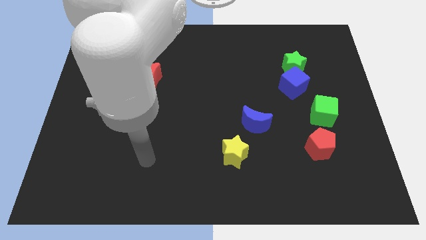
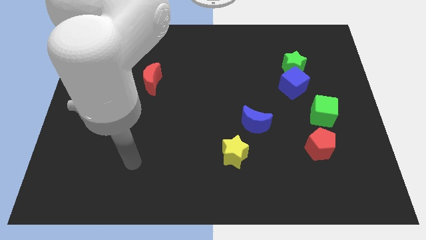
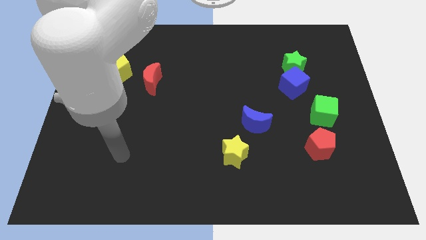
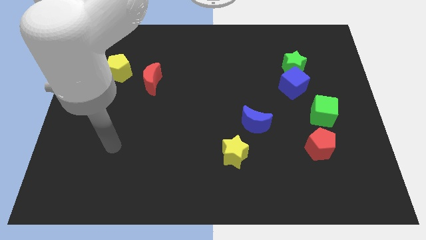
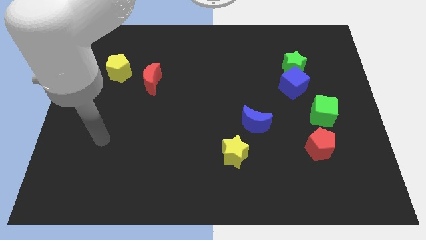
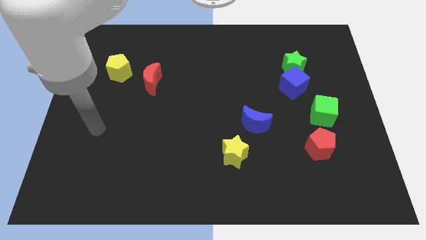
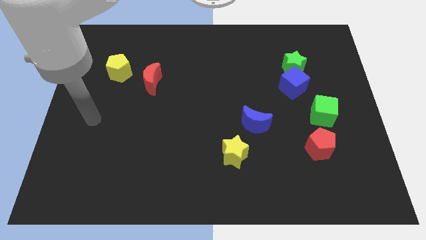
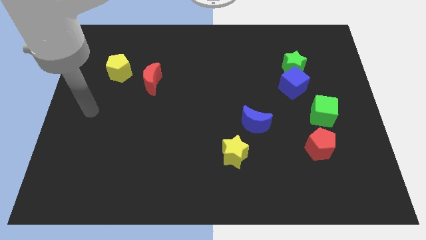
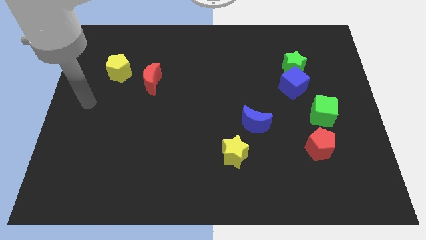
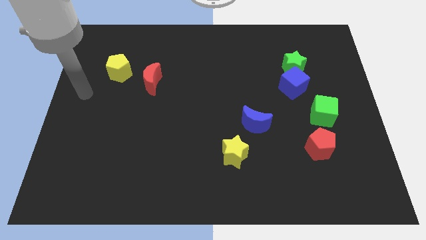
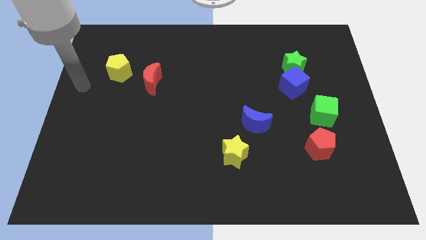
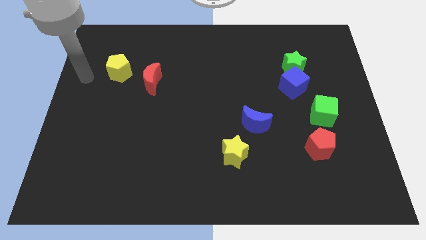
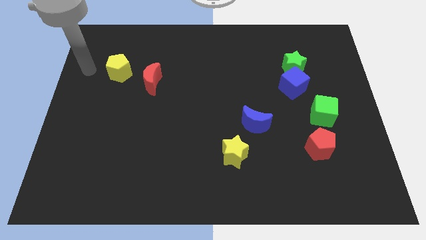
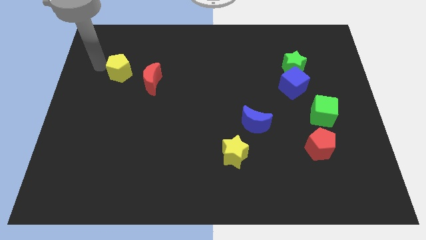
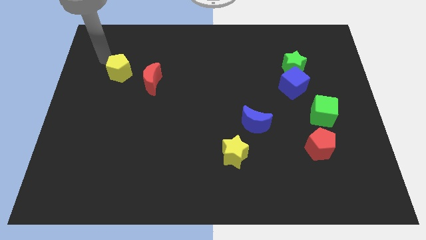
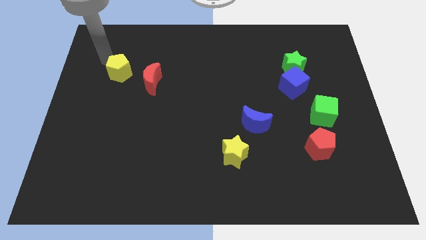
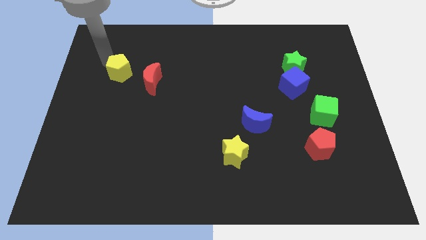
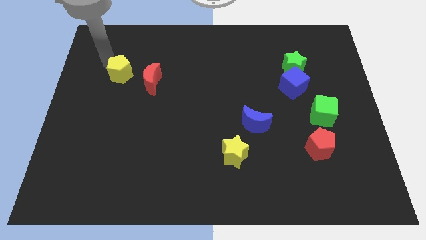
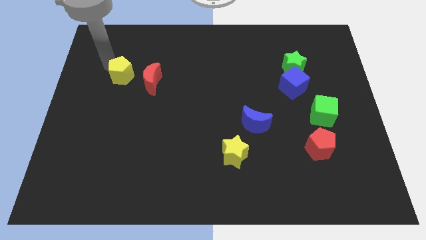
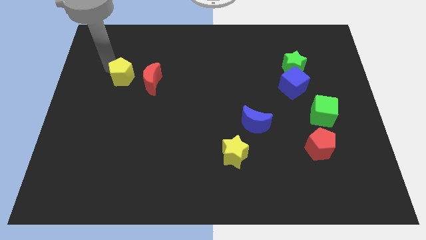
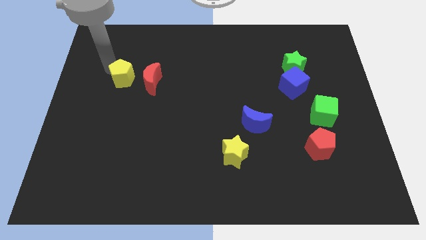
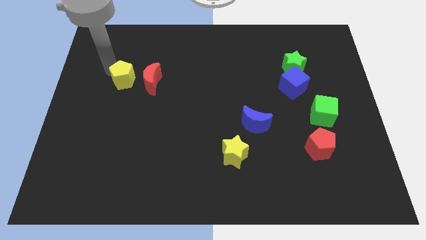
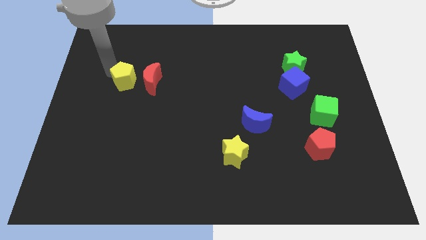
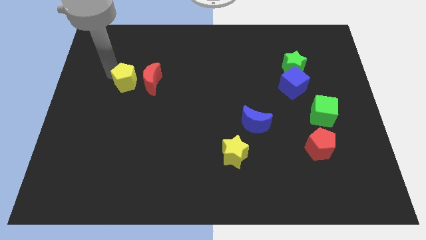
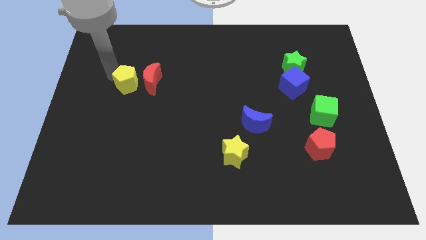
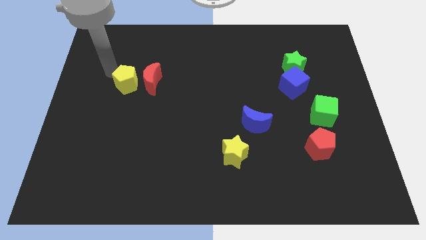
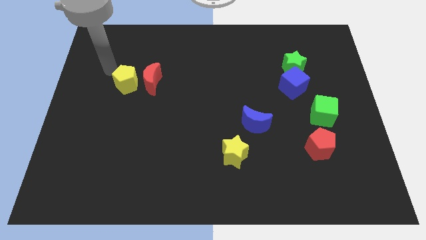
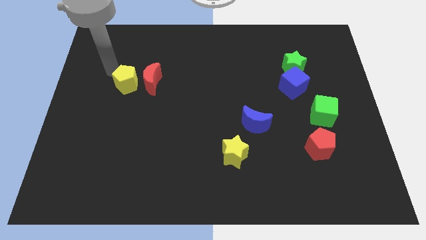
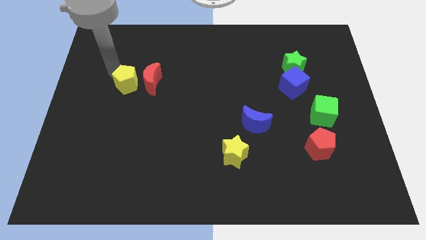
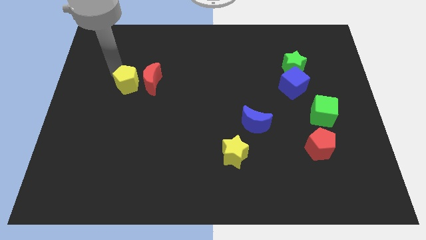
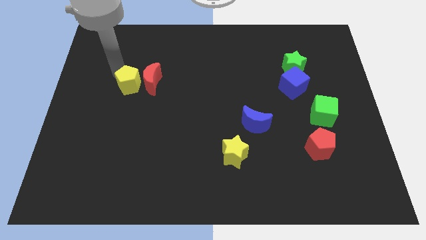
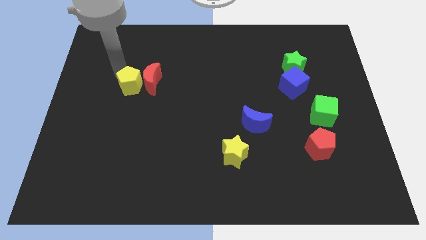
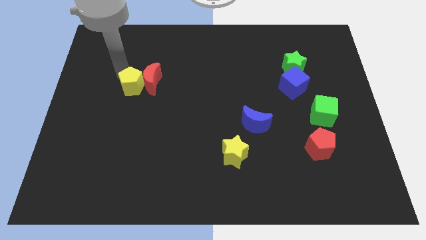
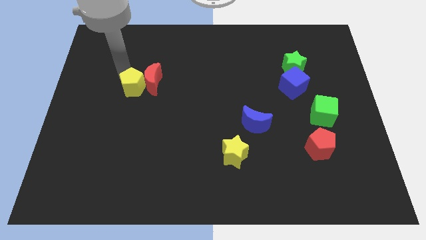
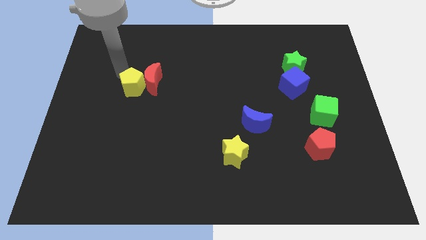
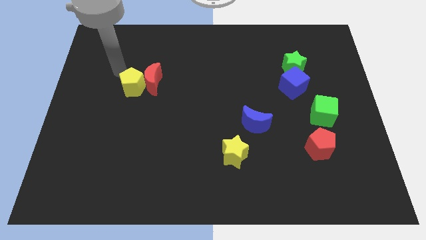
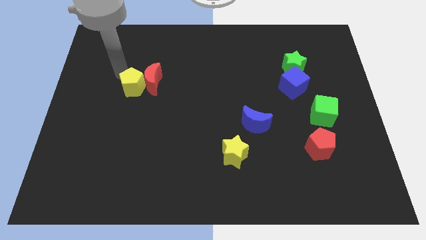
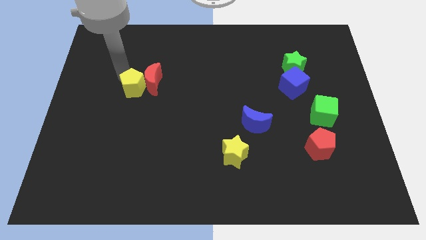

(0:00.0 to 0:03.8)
move the yellow pentagon slightly diagonally down and to the right

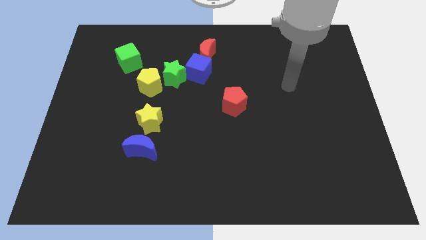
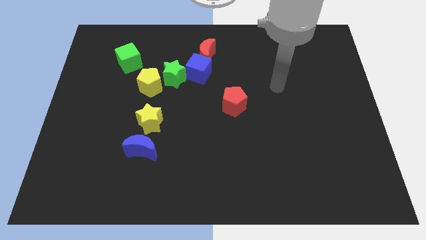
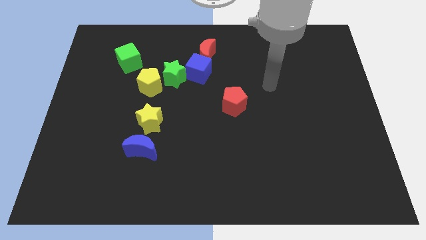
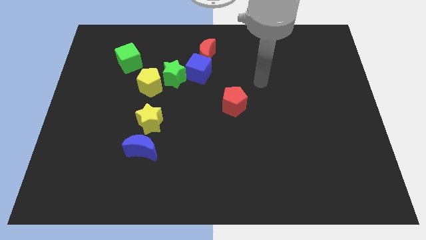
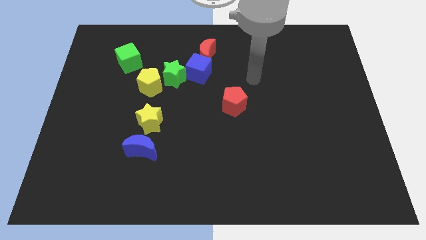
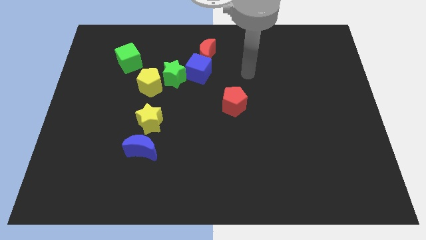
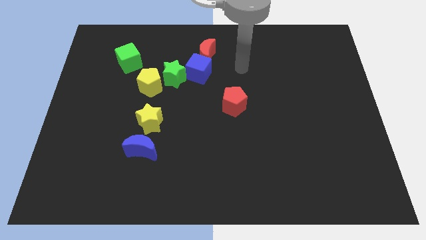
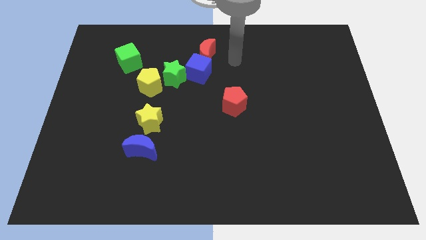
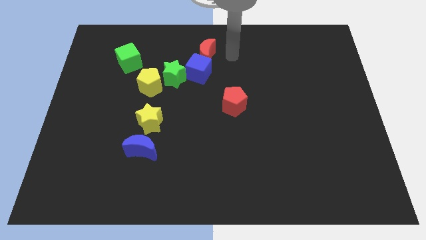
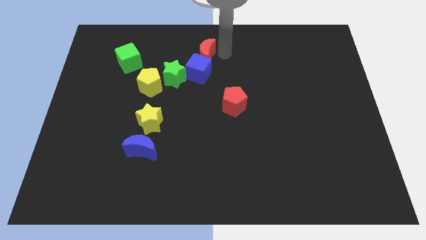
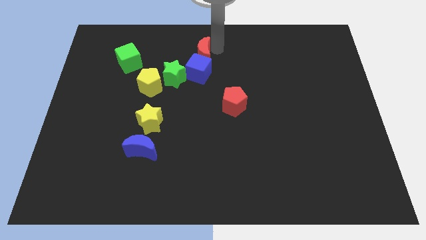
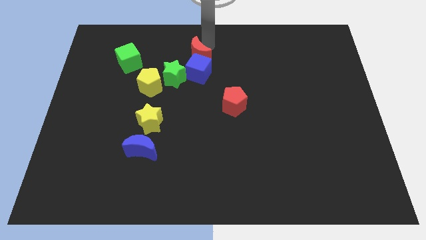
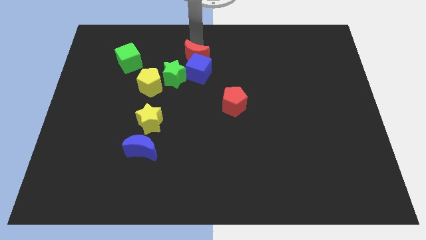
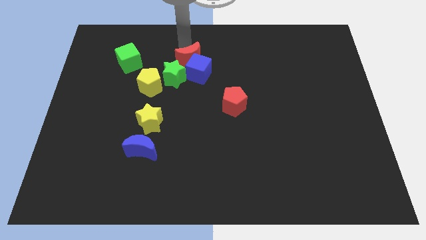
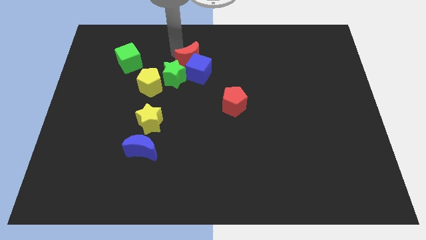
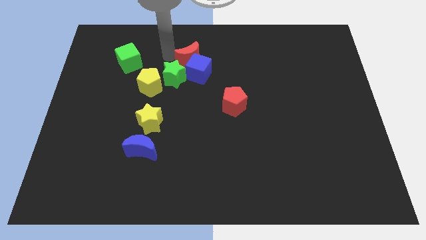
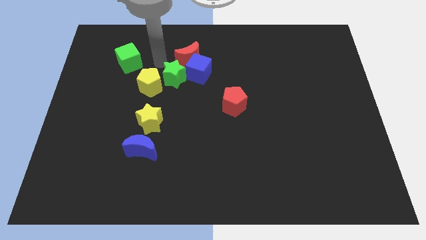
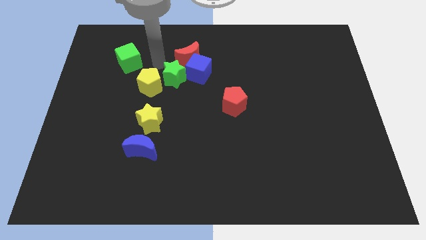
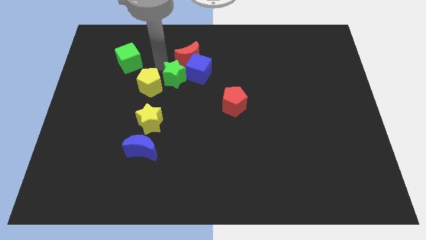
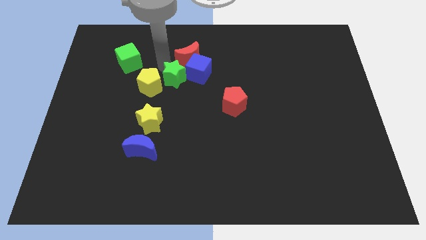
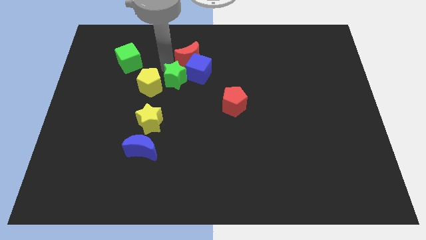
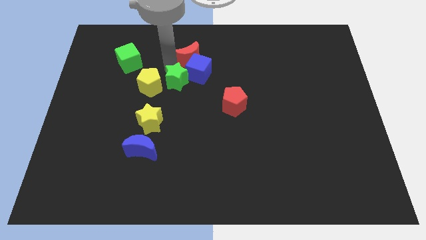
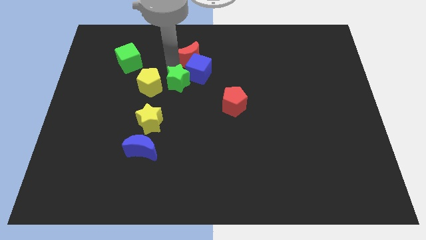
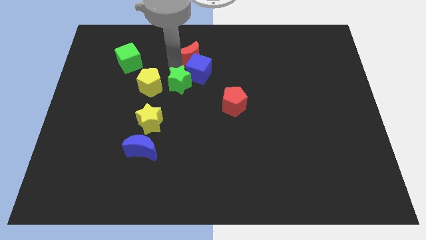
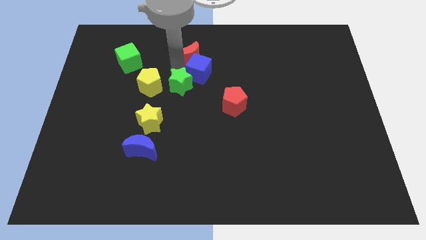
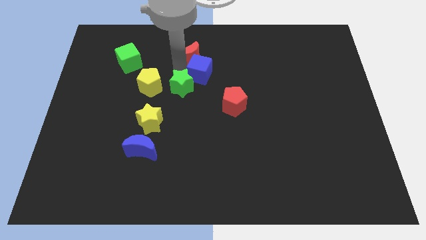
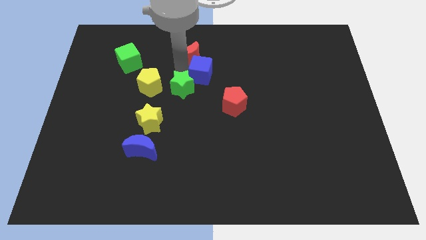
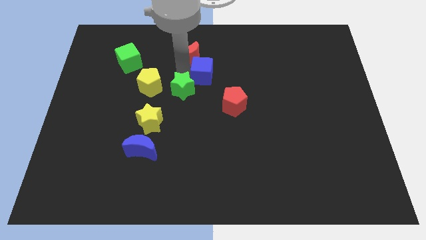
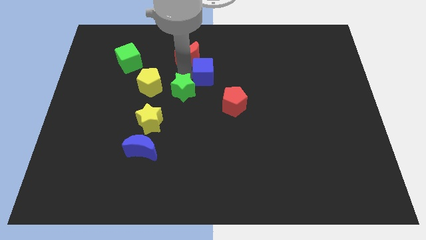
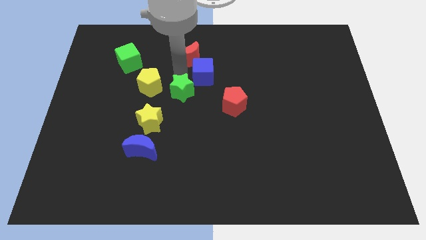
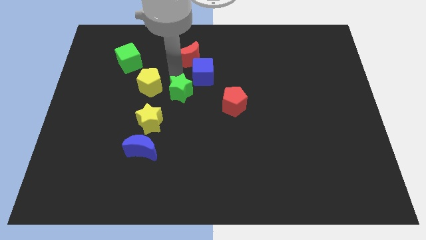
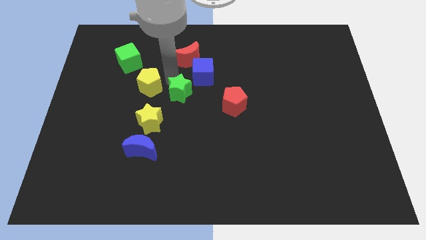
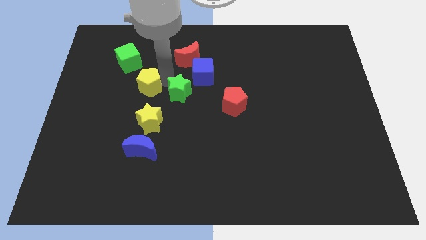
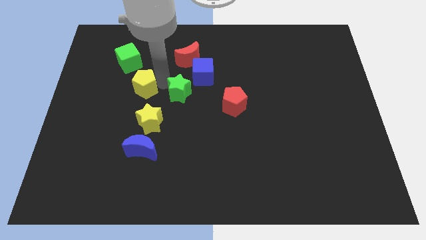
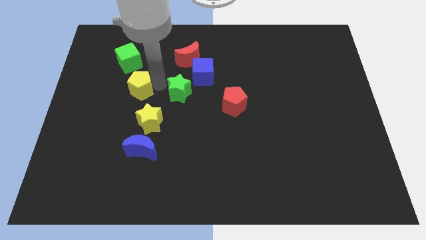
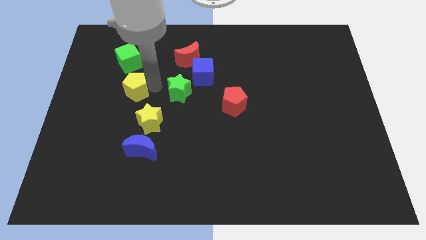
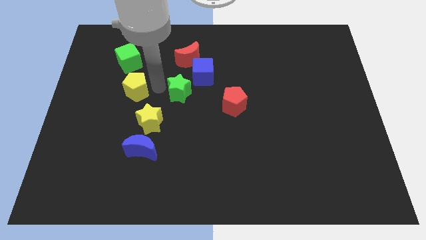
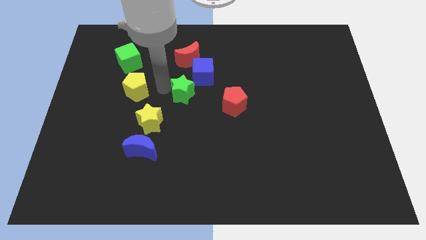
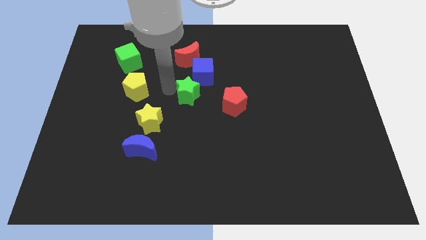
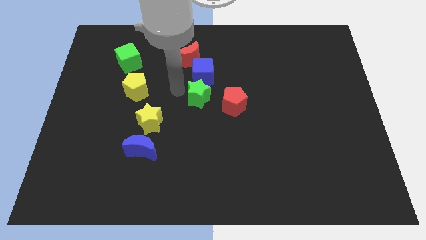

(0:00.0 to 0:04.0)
push the green star down and right diagonally a little

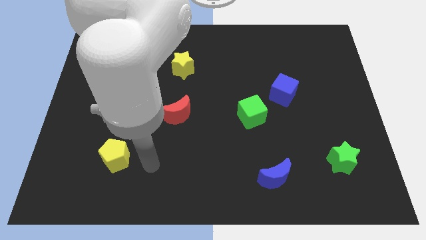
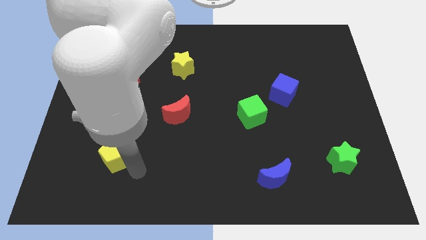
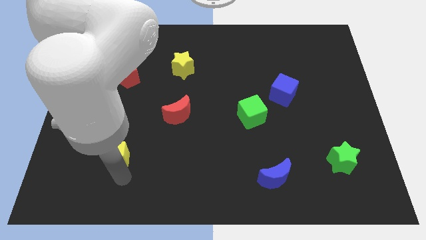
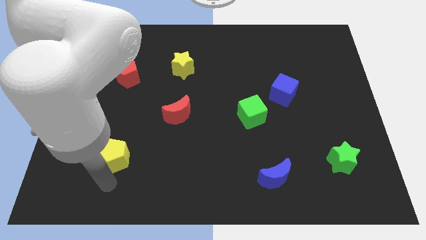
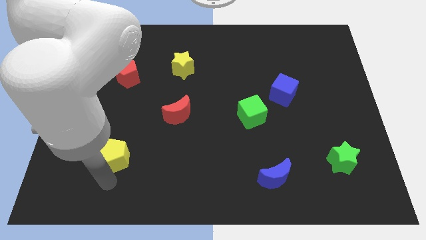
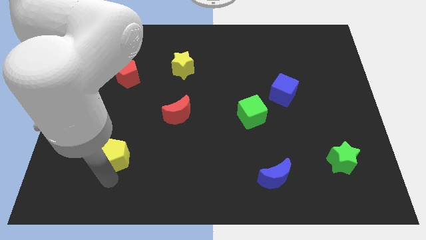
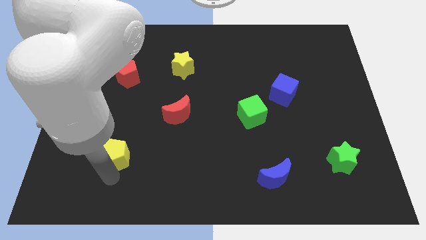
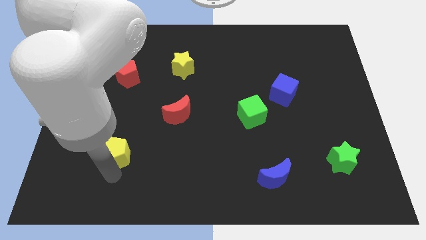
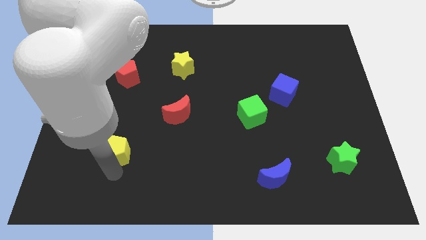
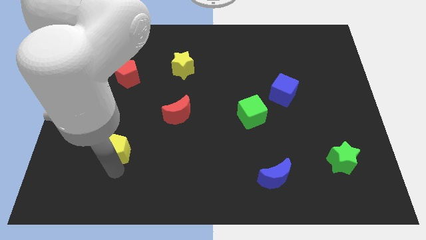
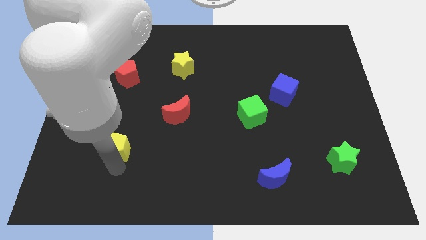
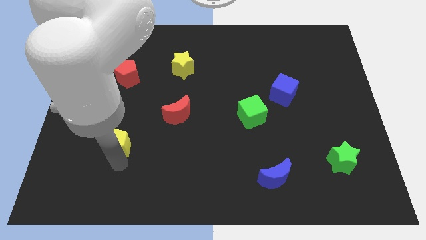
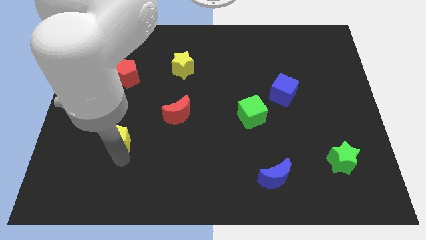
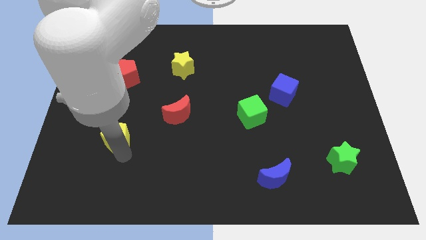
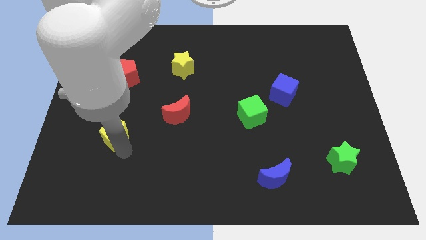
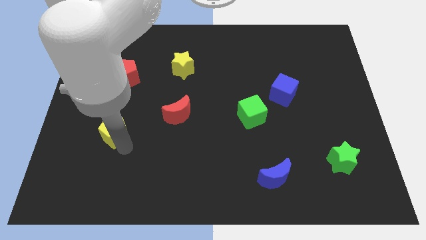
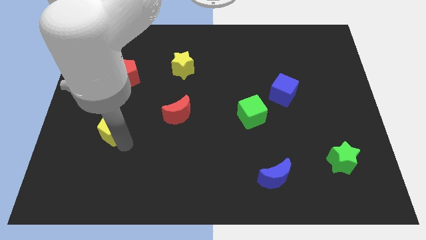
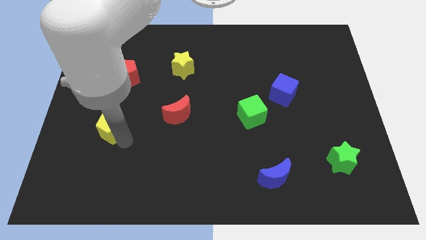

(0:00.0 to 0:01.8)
slide the yellow pentagon a bit upwards
